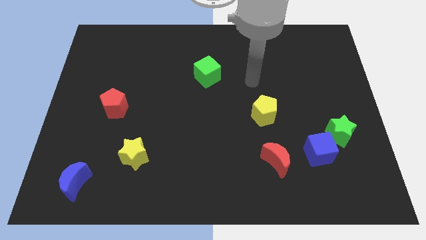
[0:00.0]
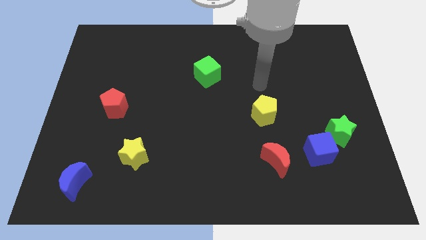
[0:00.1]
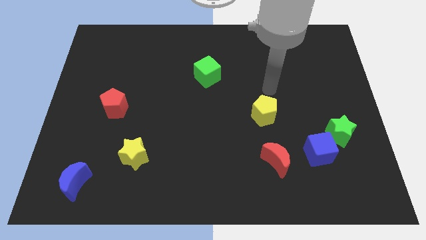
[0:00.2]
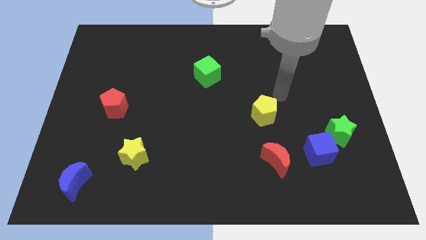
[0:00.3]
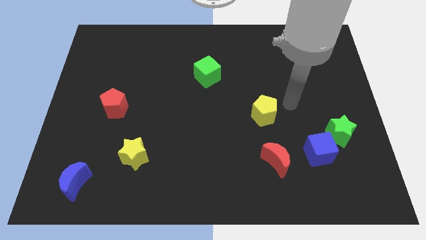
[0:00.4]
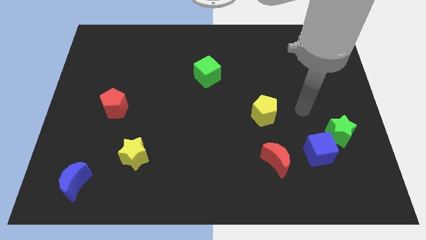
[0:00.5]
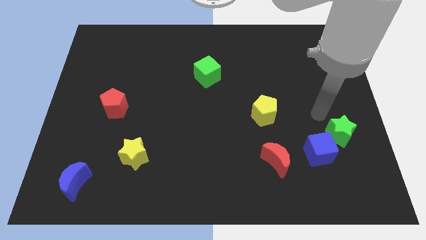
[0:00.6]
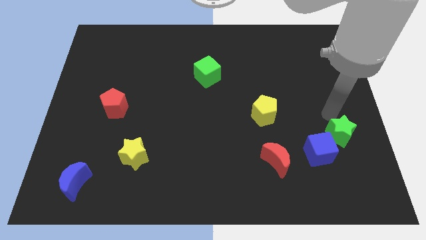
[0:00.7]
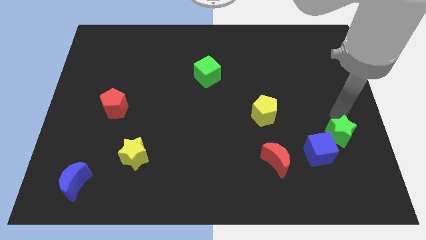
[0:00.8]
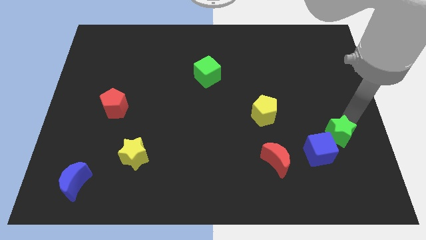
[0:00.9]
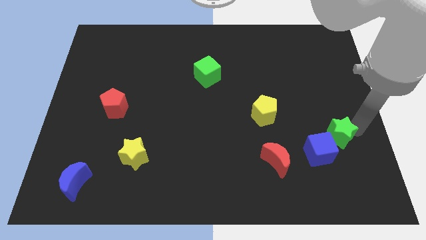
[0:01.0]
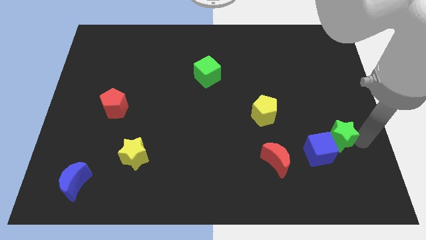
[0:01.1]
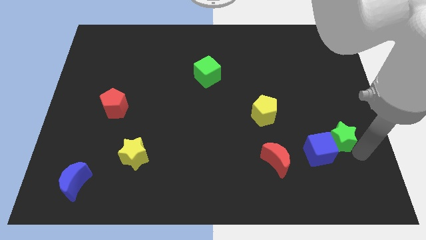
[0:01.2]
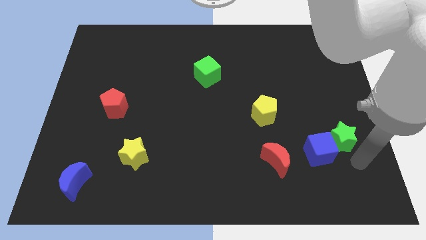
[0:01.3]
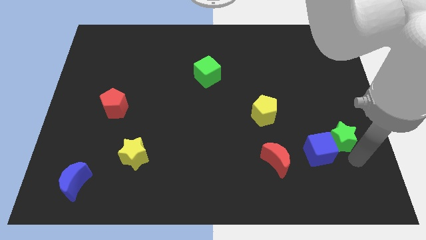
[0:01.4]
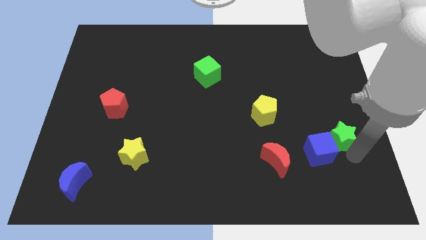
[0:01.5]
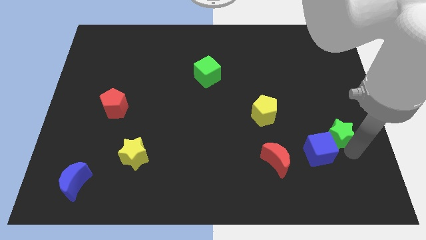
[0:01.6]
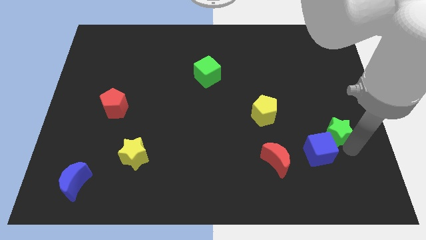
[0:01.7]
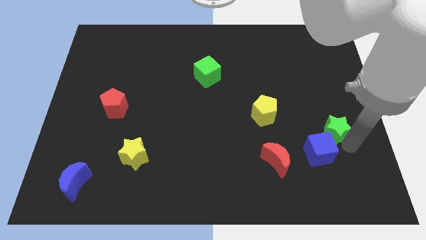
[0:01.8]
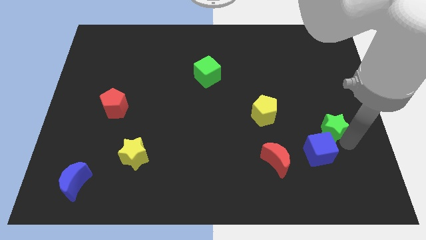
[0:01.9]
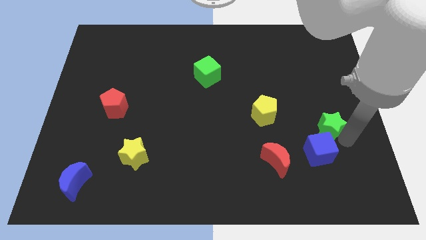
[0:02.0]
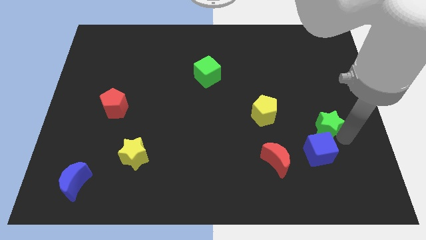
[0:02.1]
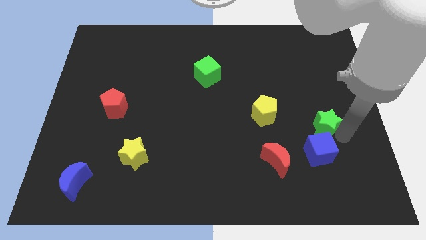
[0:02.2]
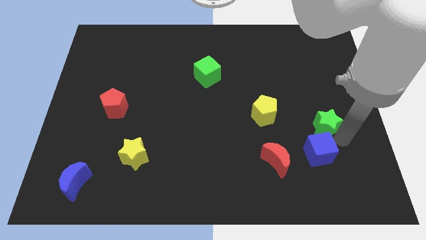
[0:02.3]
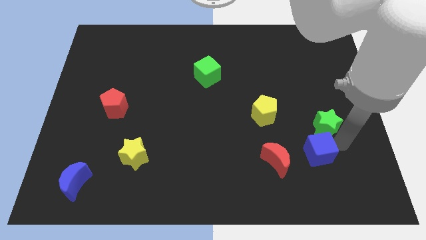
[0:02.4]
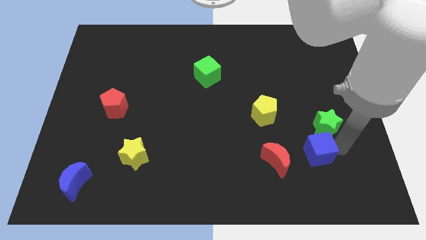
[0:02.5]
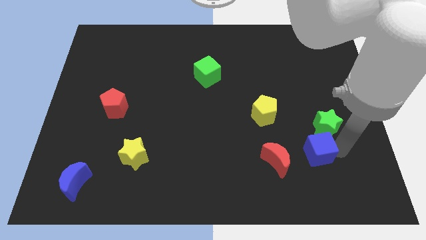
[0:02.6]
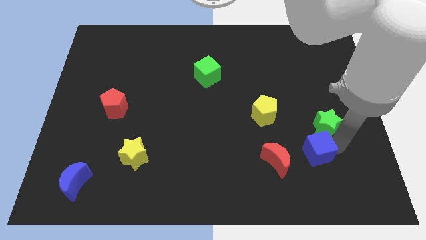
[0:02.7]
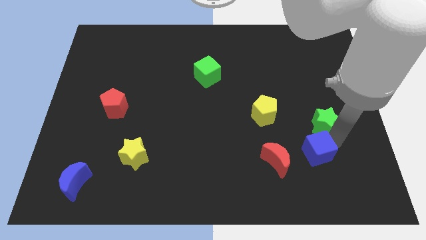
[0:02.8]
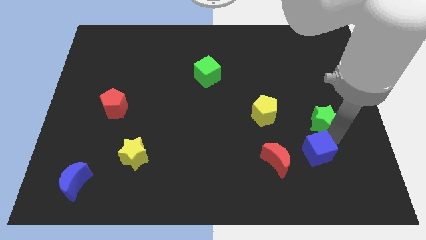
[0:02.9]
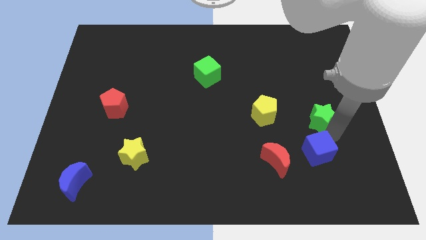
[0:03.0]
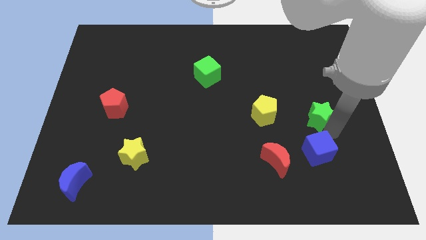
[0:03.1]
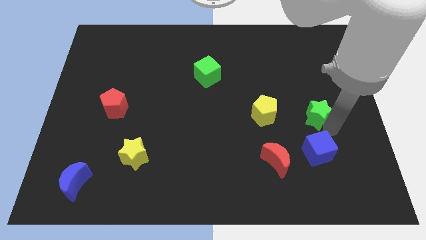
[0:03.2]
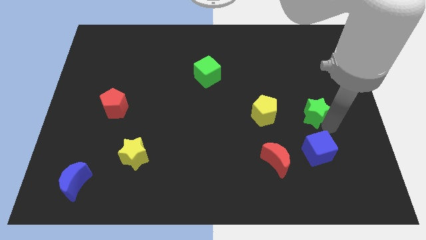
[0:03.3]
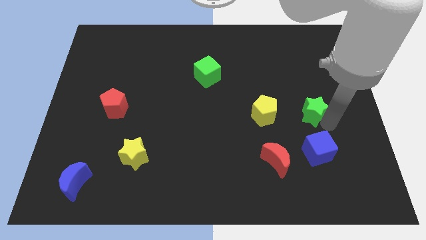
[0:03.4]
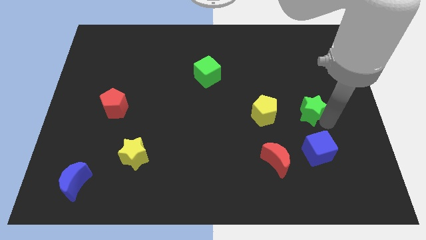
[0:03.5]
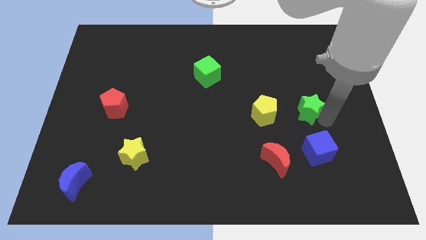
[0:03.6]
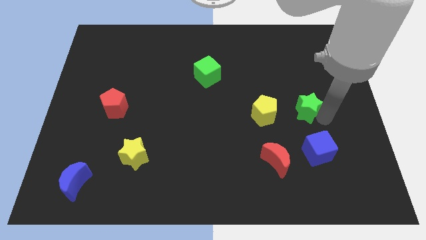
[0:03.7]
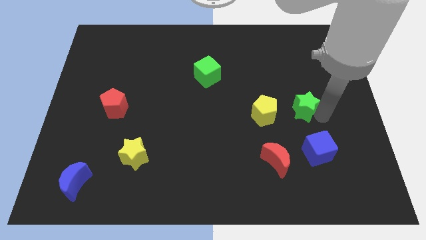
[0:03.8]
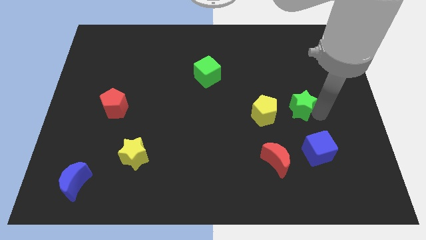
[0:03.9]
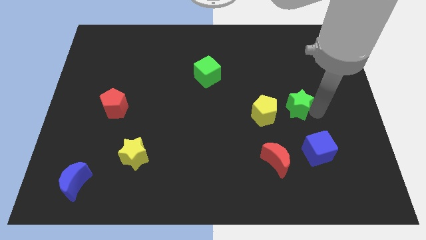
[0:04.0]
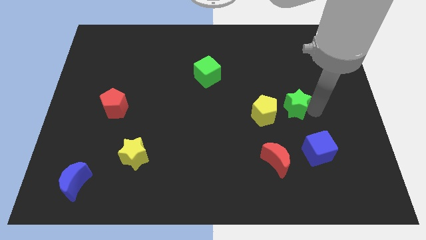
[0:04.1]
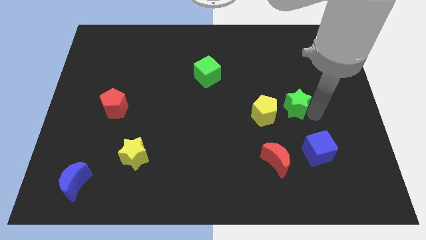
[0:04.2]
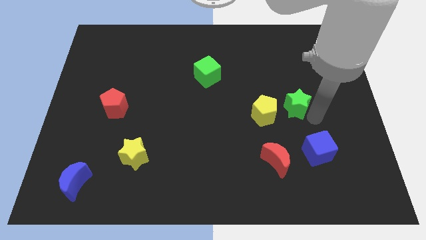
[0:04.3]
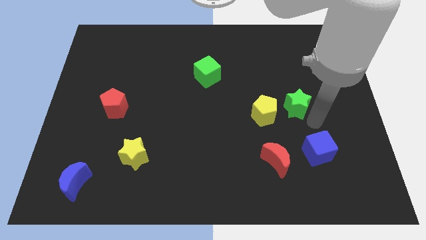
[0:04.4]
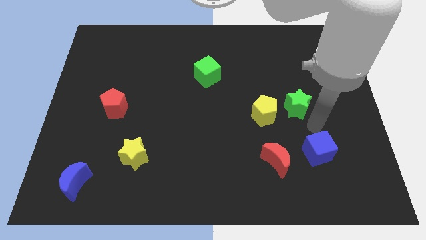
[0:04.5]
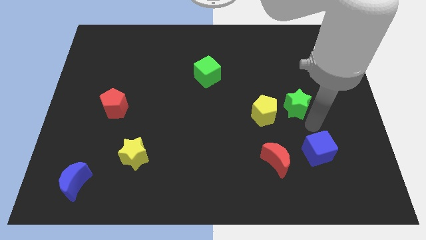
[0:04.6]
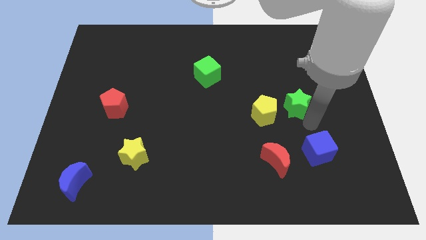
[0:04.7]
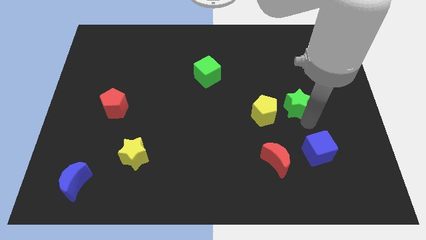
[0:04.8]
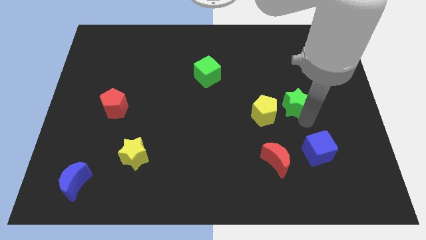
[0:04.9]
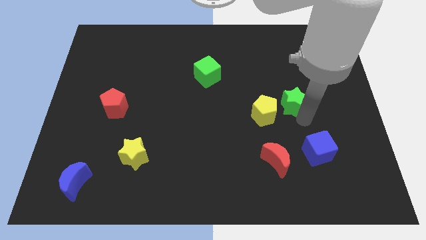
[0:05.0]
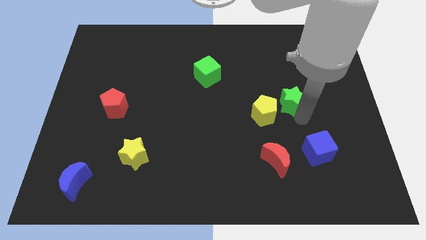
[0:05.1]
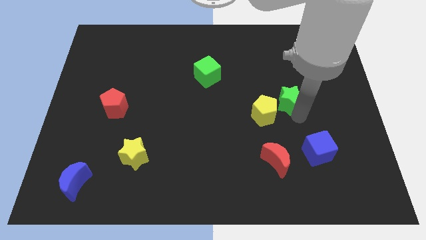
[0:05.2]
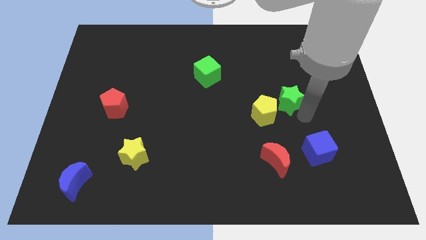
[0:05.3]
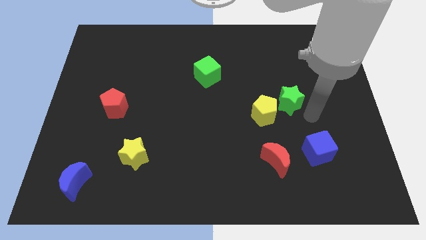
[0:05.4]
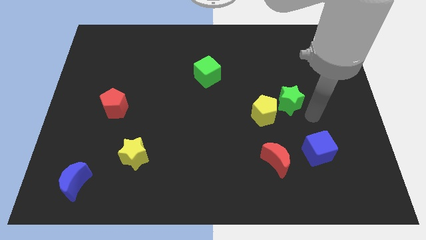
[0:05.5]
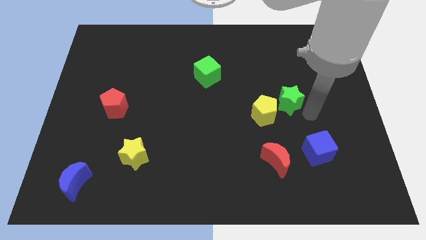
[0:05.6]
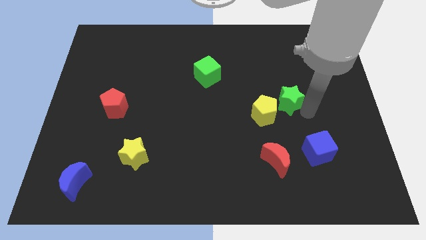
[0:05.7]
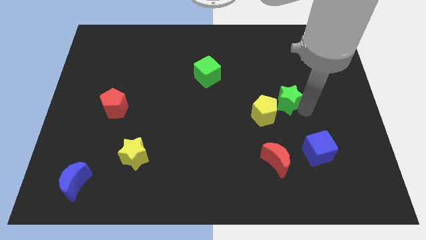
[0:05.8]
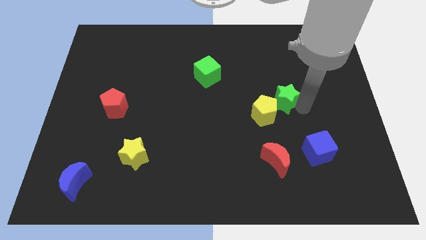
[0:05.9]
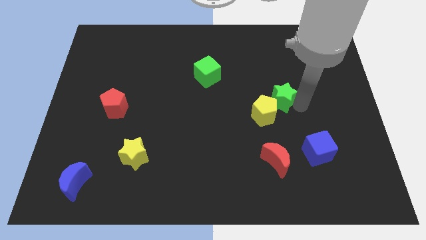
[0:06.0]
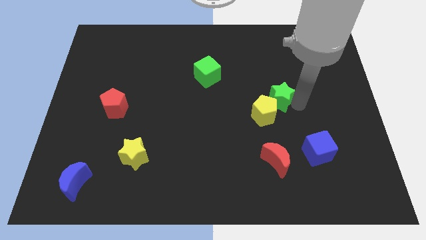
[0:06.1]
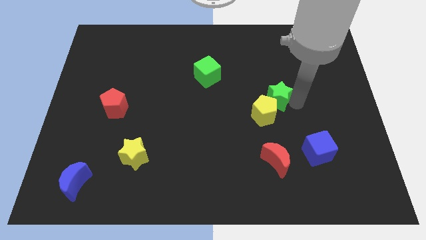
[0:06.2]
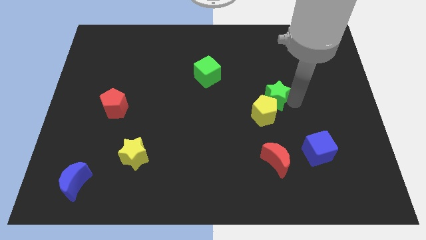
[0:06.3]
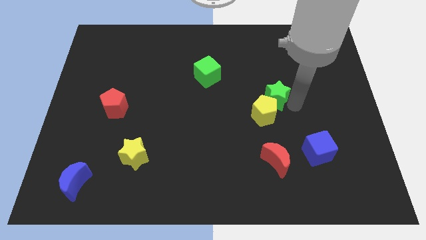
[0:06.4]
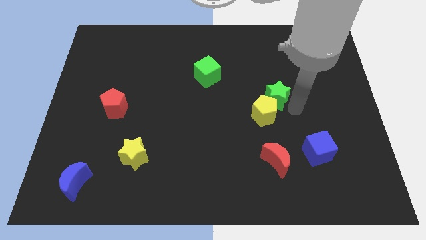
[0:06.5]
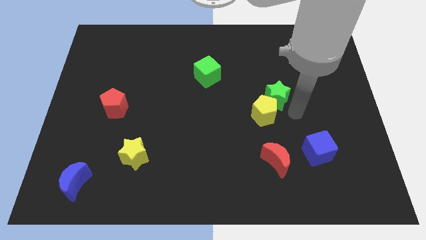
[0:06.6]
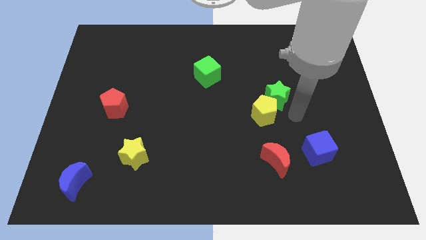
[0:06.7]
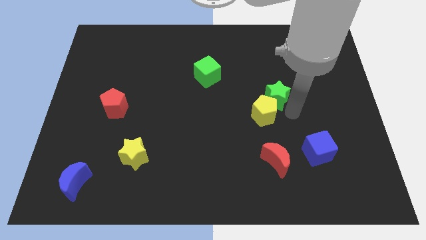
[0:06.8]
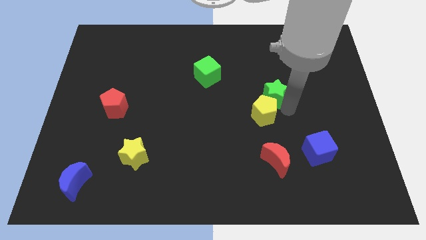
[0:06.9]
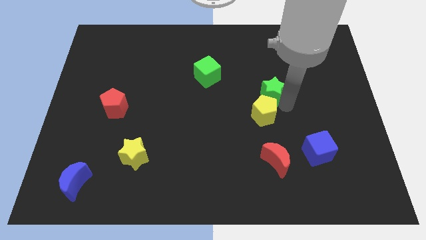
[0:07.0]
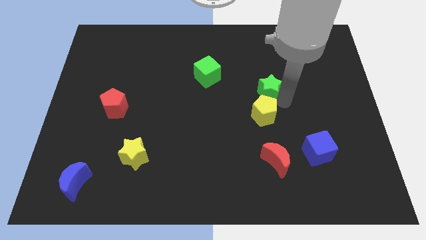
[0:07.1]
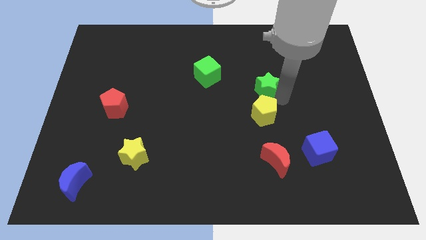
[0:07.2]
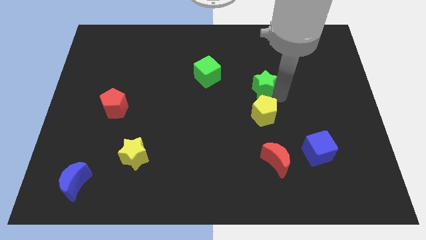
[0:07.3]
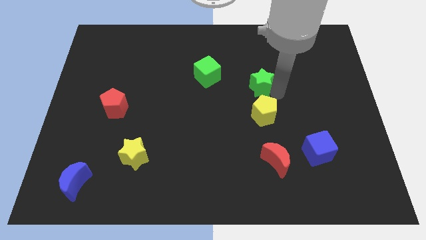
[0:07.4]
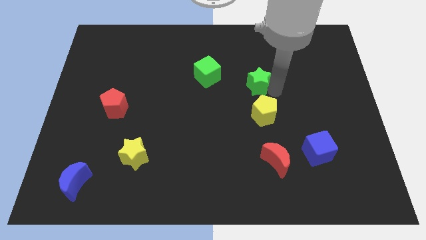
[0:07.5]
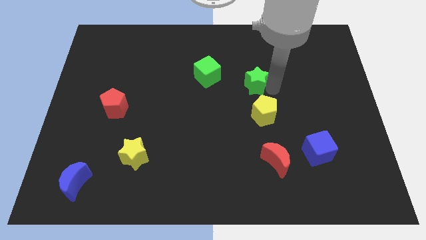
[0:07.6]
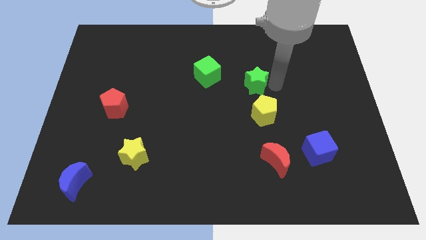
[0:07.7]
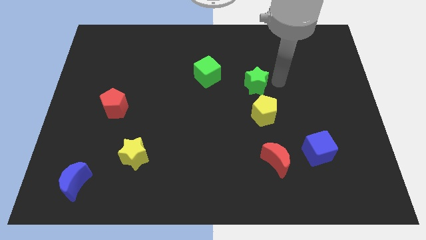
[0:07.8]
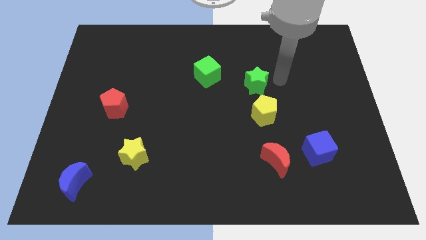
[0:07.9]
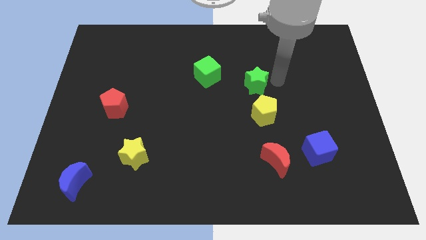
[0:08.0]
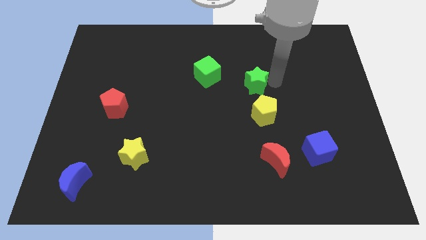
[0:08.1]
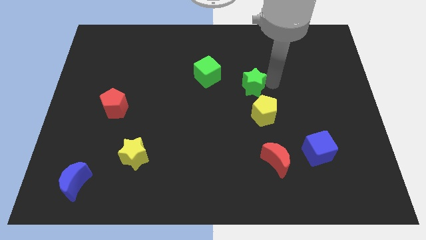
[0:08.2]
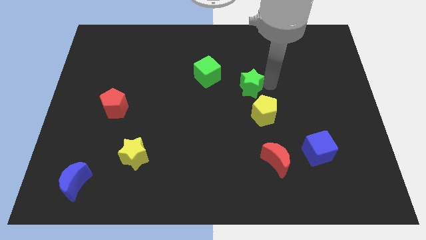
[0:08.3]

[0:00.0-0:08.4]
put the green star to the bottom right side of the green cube
